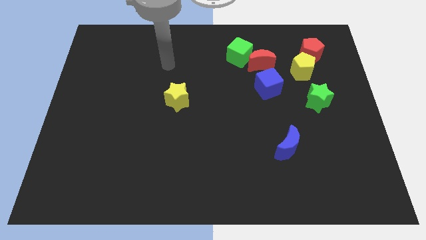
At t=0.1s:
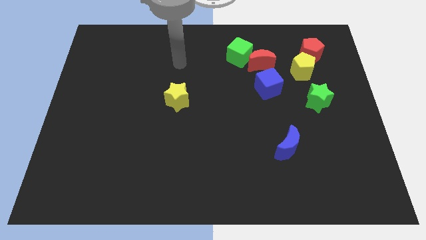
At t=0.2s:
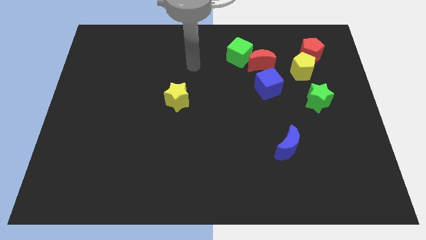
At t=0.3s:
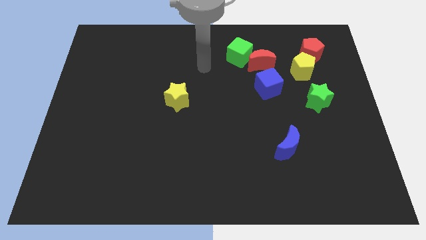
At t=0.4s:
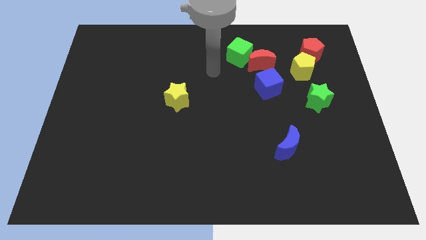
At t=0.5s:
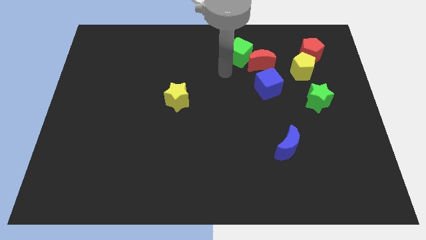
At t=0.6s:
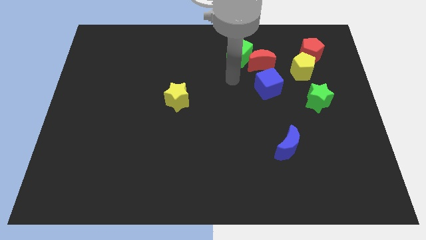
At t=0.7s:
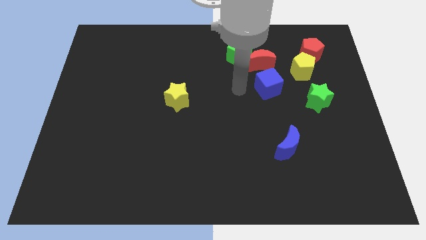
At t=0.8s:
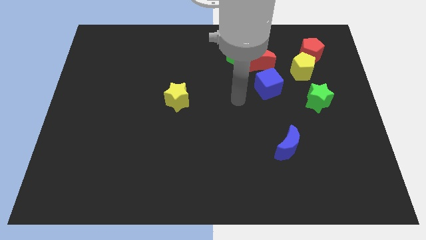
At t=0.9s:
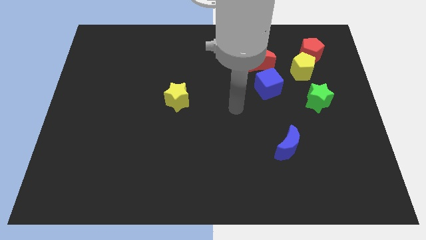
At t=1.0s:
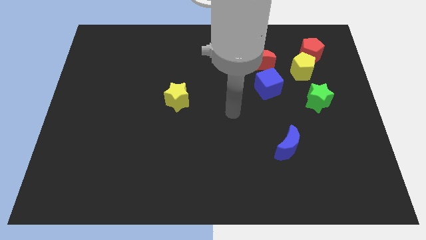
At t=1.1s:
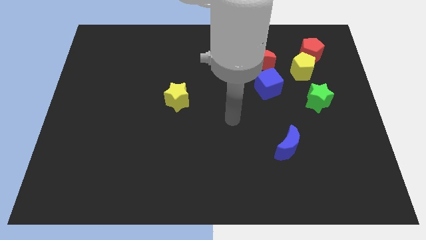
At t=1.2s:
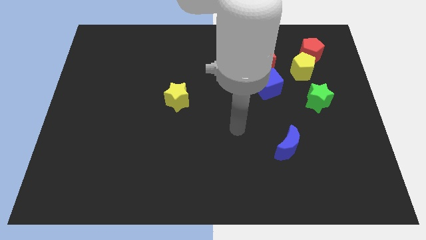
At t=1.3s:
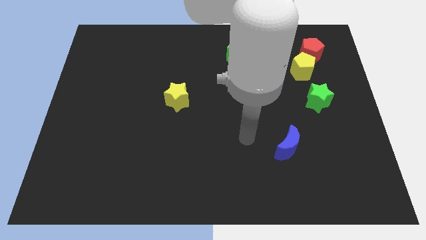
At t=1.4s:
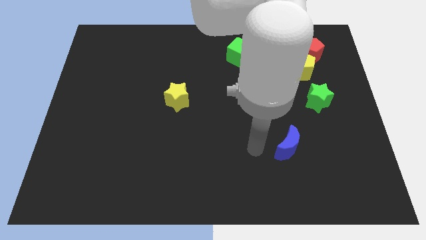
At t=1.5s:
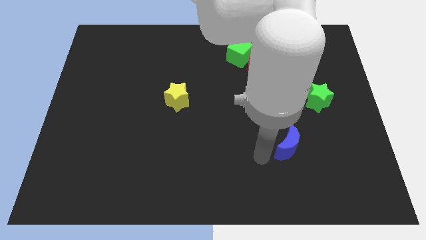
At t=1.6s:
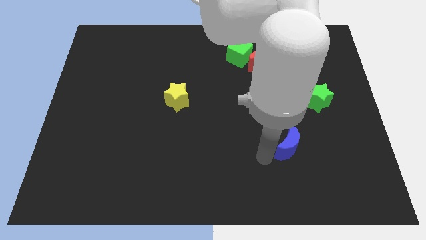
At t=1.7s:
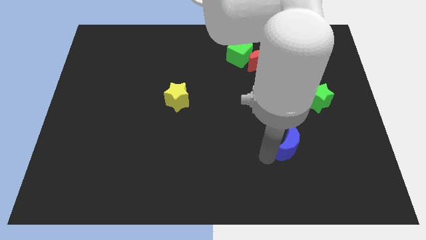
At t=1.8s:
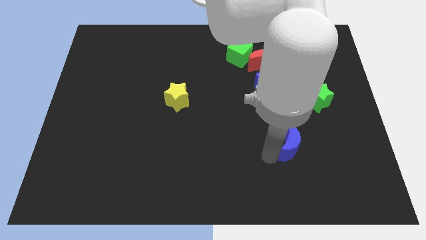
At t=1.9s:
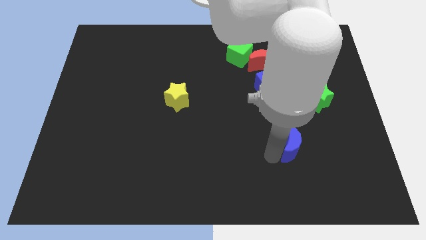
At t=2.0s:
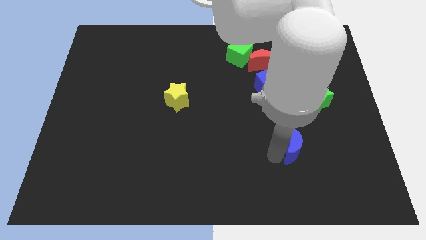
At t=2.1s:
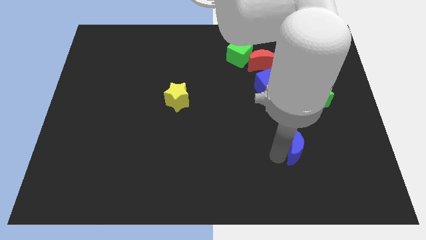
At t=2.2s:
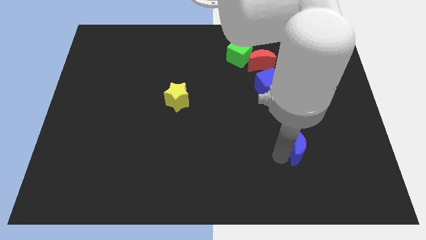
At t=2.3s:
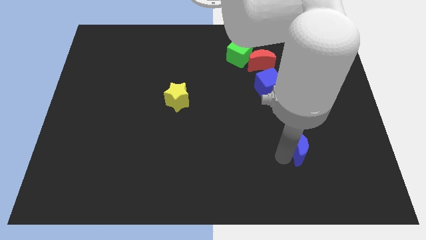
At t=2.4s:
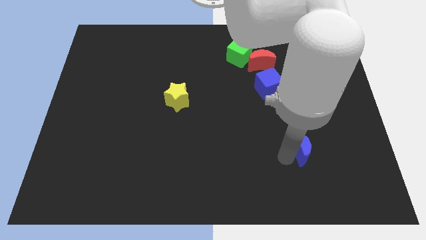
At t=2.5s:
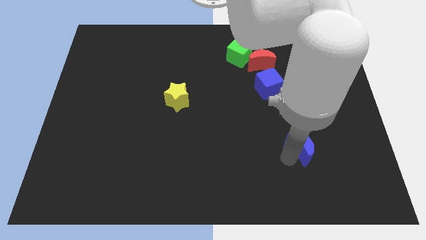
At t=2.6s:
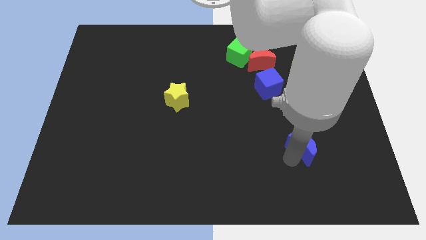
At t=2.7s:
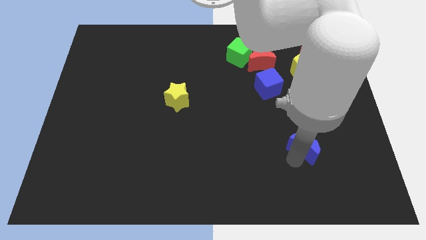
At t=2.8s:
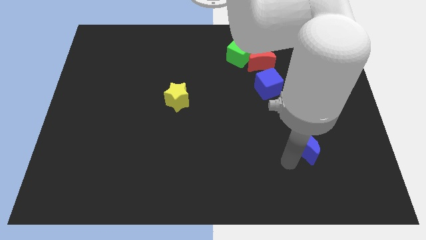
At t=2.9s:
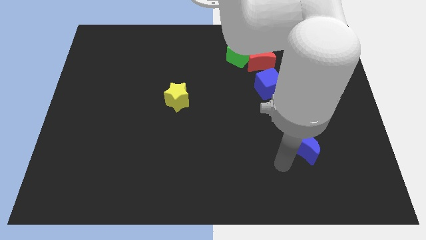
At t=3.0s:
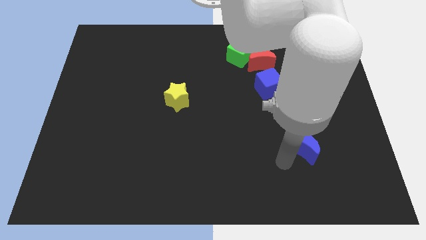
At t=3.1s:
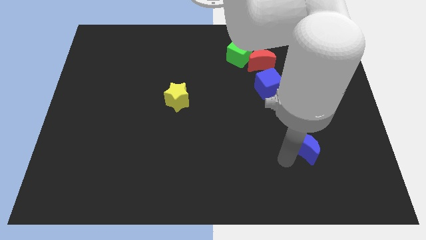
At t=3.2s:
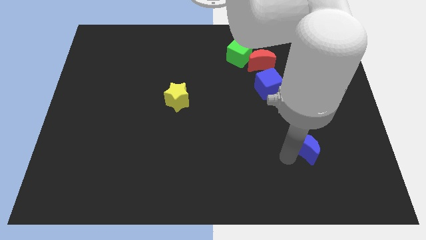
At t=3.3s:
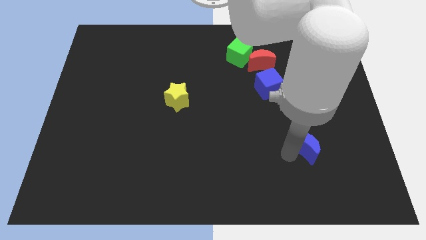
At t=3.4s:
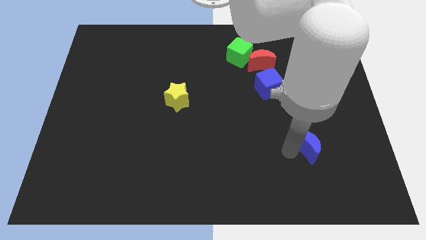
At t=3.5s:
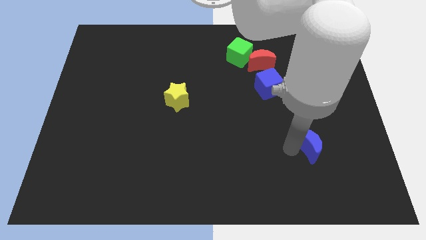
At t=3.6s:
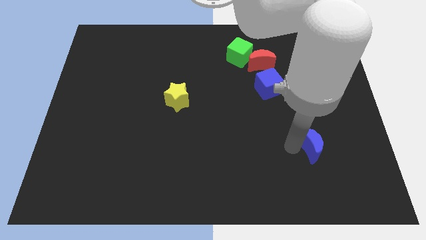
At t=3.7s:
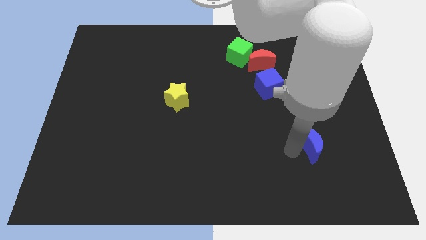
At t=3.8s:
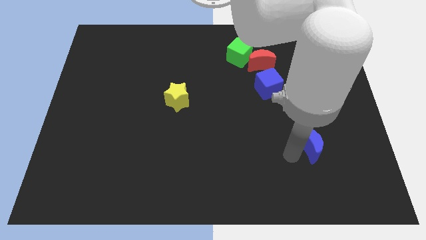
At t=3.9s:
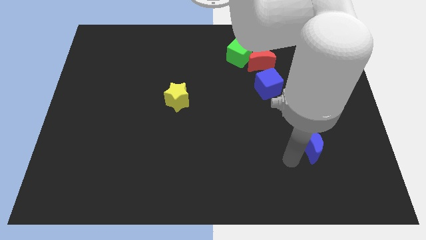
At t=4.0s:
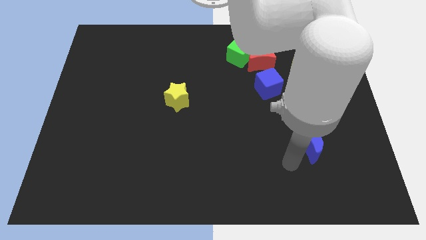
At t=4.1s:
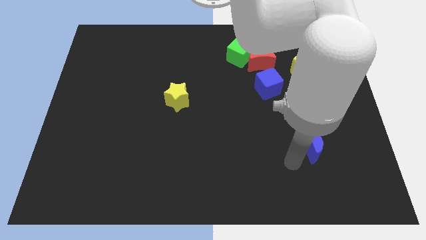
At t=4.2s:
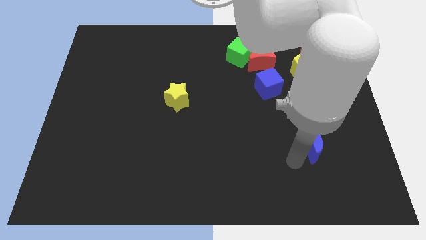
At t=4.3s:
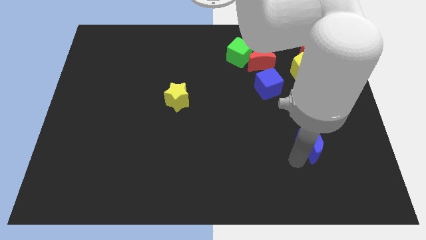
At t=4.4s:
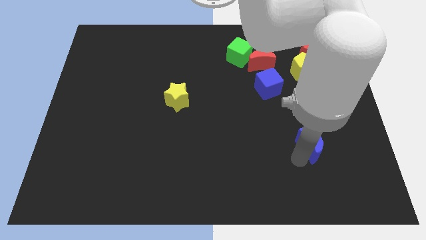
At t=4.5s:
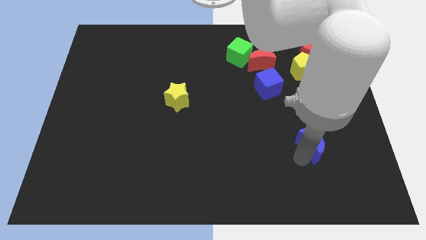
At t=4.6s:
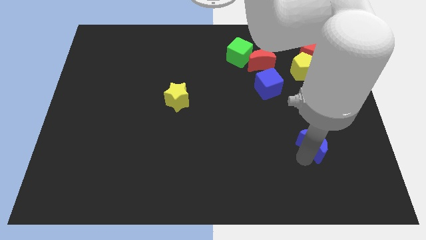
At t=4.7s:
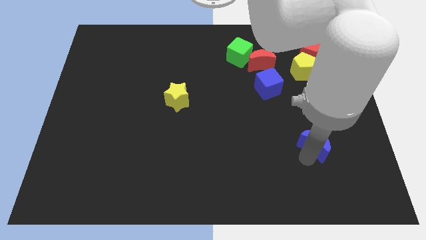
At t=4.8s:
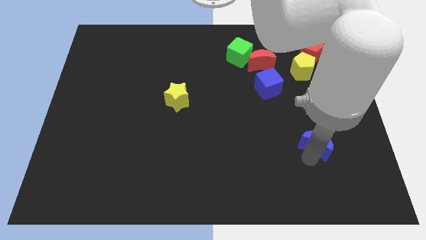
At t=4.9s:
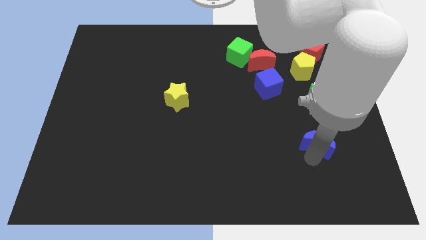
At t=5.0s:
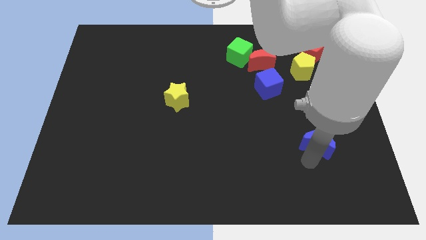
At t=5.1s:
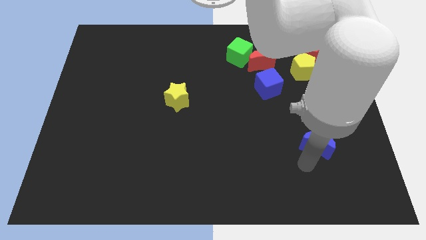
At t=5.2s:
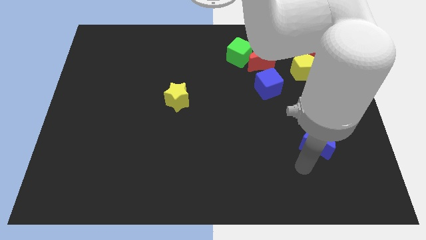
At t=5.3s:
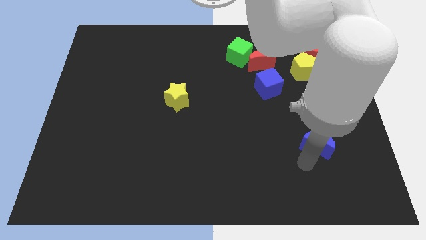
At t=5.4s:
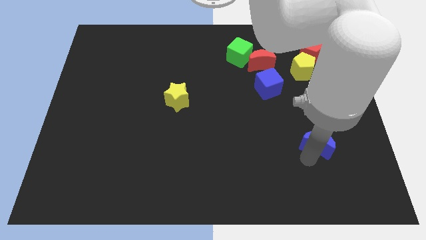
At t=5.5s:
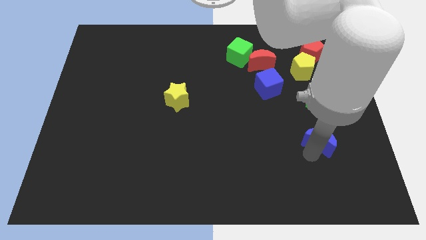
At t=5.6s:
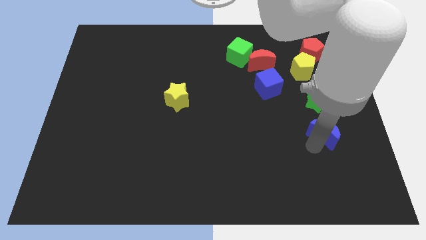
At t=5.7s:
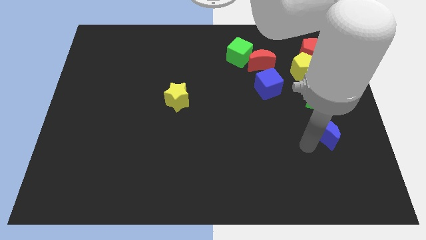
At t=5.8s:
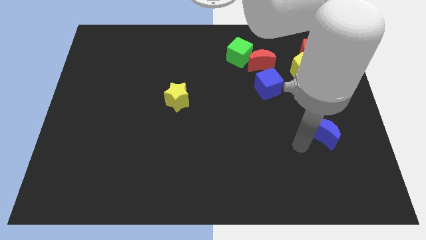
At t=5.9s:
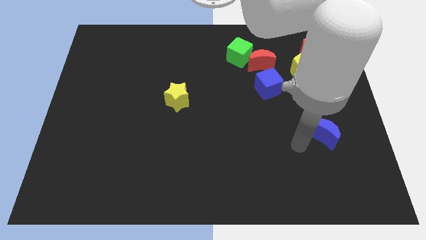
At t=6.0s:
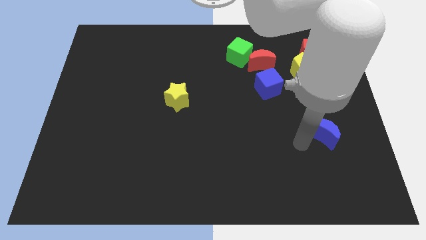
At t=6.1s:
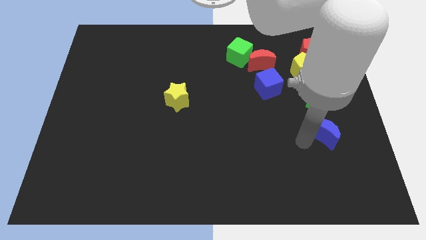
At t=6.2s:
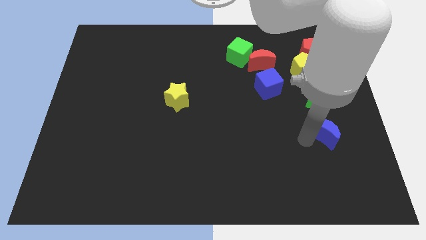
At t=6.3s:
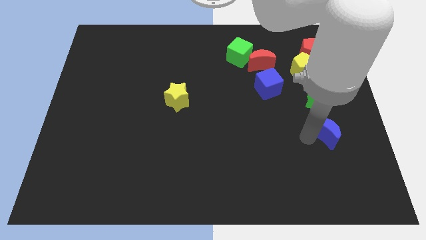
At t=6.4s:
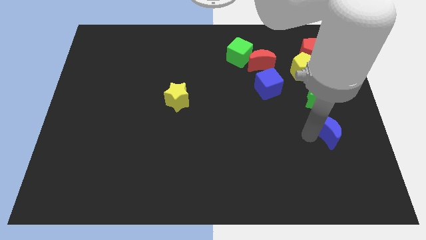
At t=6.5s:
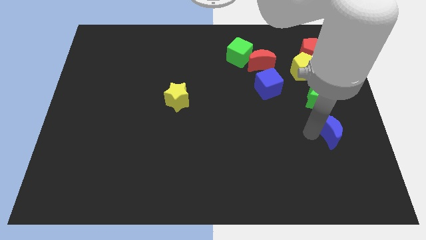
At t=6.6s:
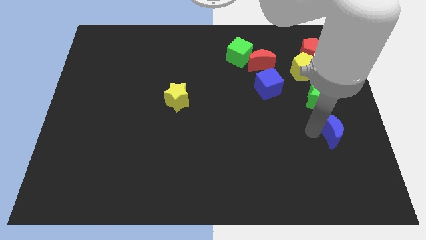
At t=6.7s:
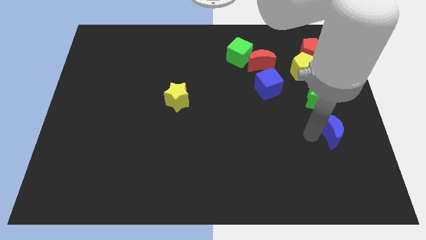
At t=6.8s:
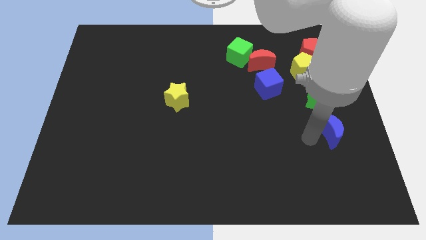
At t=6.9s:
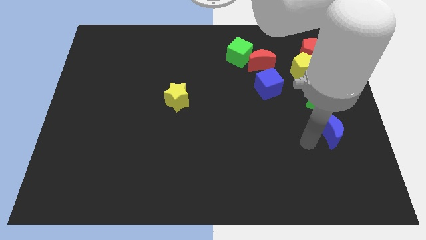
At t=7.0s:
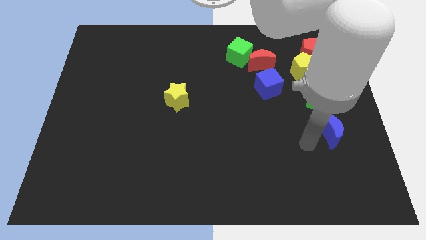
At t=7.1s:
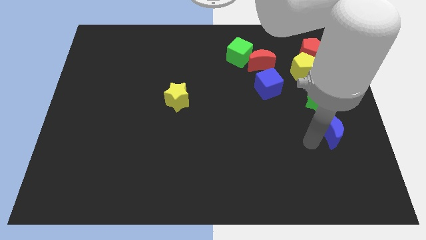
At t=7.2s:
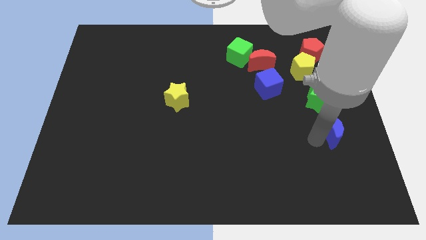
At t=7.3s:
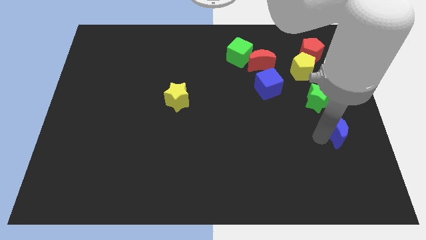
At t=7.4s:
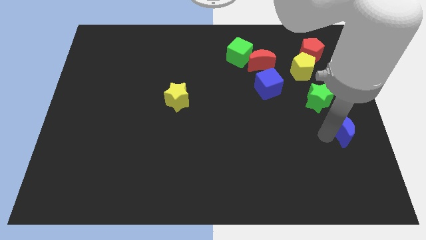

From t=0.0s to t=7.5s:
put the blue moon to the center right
